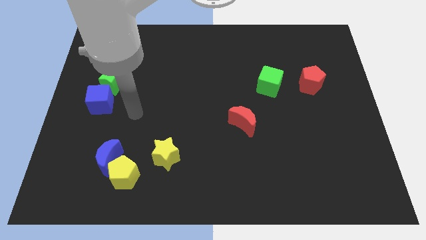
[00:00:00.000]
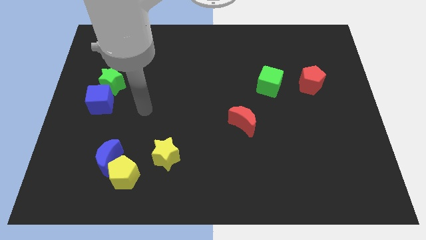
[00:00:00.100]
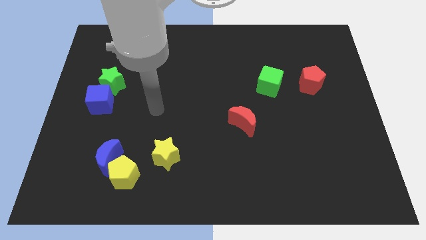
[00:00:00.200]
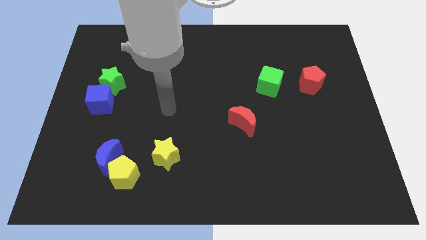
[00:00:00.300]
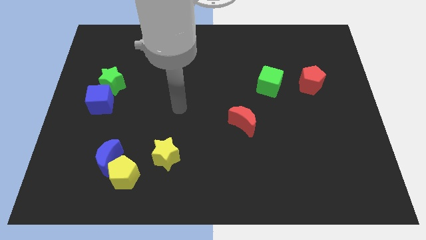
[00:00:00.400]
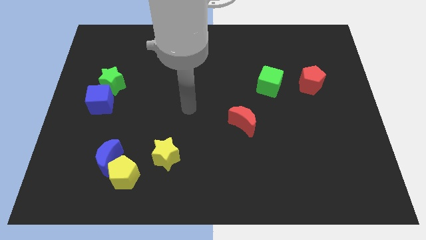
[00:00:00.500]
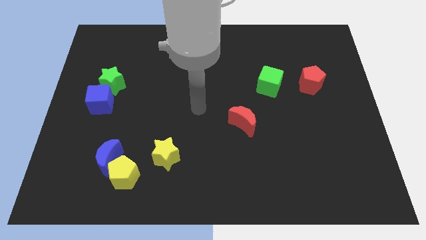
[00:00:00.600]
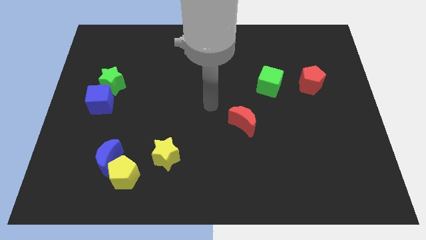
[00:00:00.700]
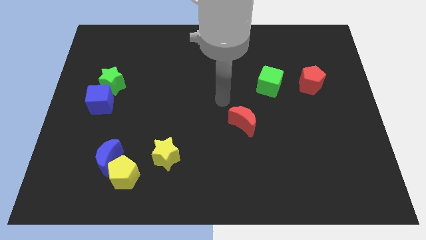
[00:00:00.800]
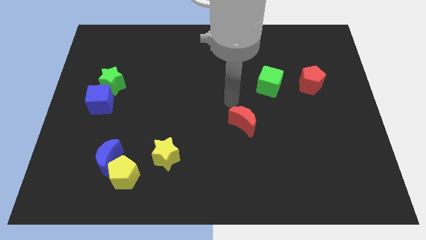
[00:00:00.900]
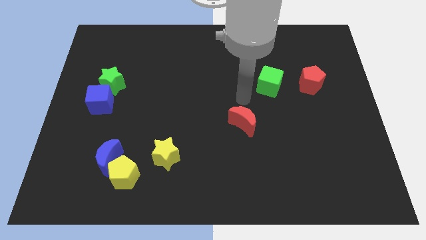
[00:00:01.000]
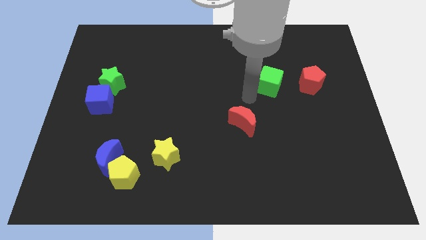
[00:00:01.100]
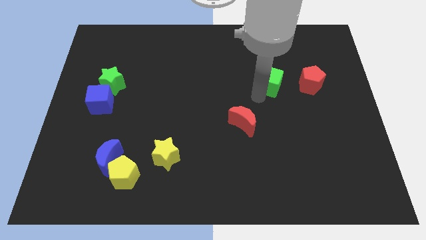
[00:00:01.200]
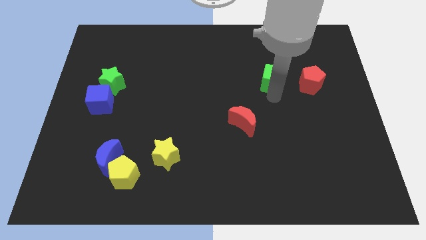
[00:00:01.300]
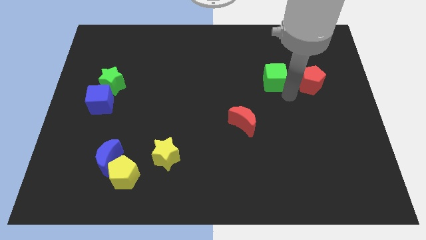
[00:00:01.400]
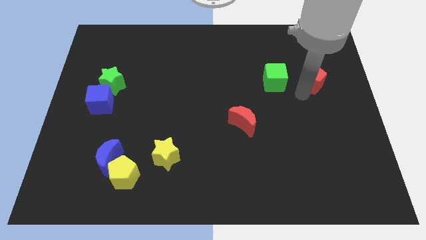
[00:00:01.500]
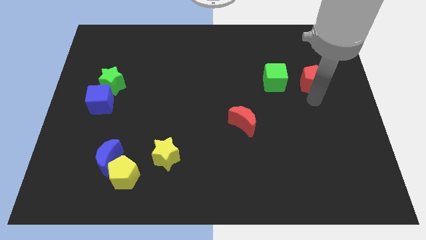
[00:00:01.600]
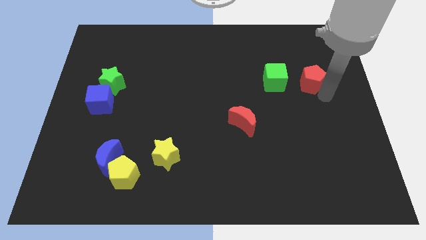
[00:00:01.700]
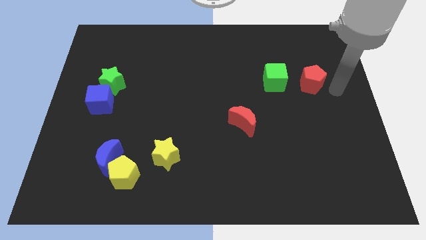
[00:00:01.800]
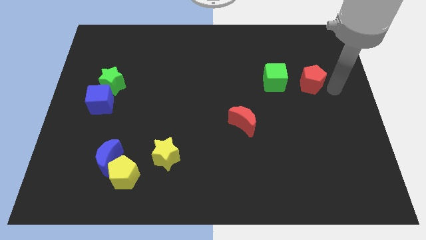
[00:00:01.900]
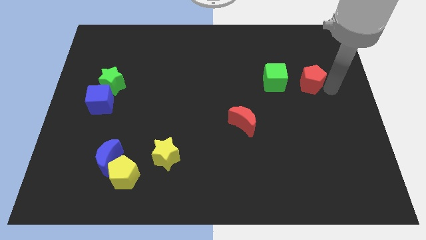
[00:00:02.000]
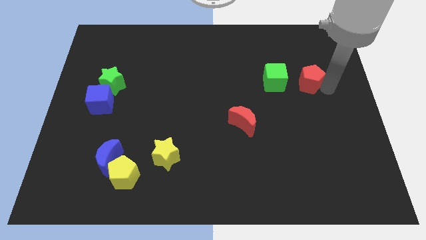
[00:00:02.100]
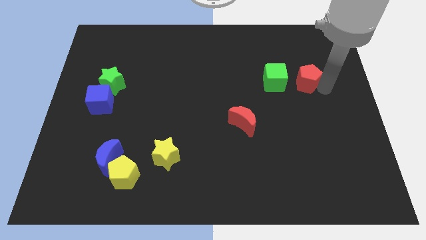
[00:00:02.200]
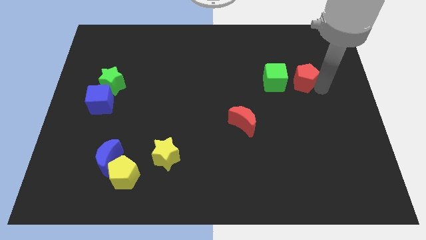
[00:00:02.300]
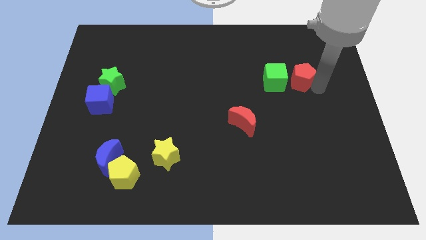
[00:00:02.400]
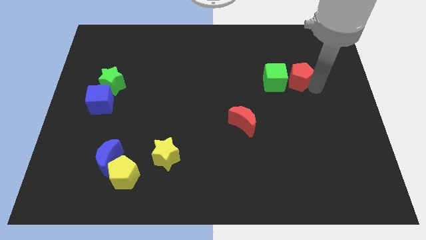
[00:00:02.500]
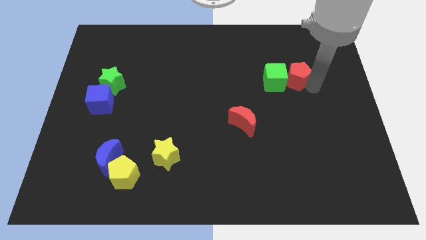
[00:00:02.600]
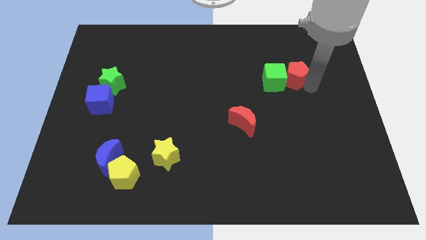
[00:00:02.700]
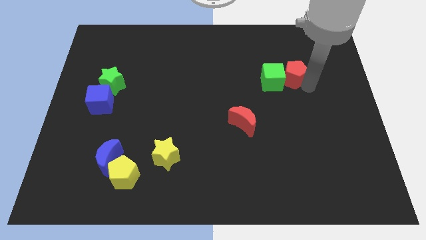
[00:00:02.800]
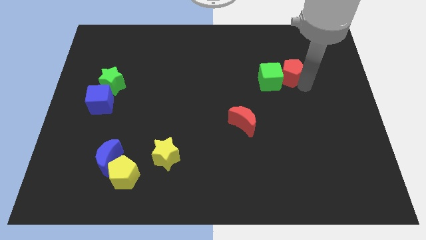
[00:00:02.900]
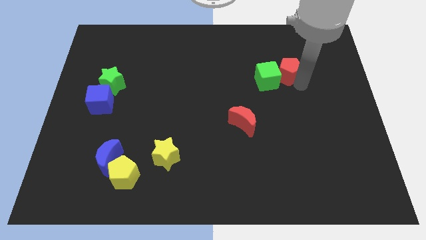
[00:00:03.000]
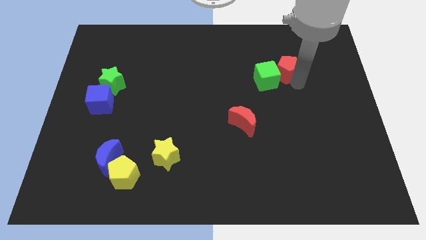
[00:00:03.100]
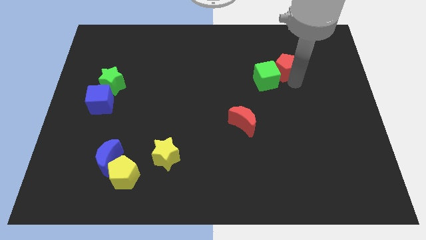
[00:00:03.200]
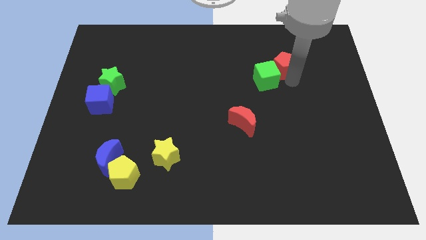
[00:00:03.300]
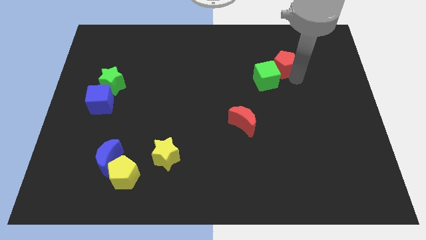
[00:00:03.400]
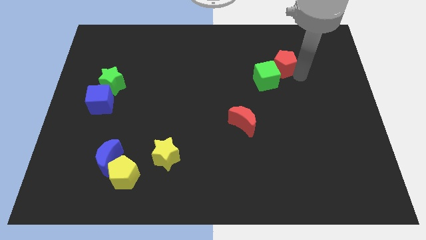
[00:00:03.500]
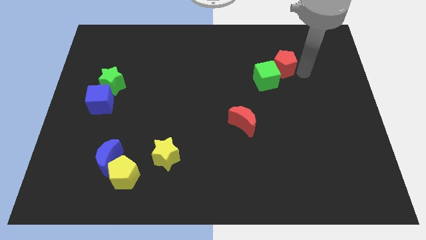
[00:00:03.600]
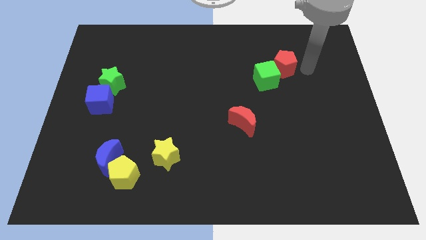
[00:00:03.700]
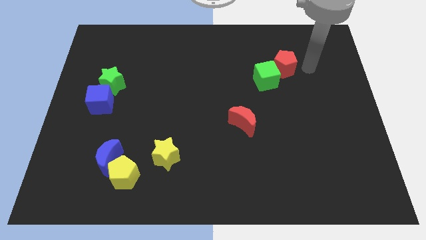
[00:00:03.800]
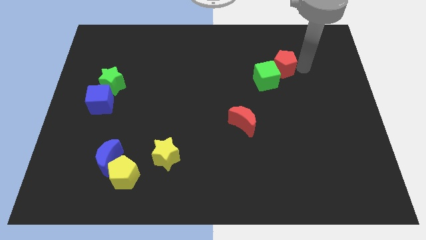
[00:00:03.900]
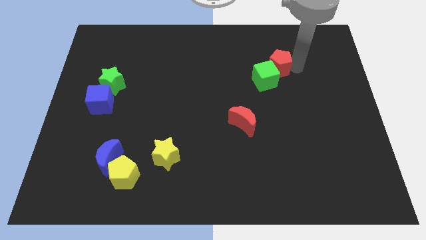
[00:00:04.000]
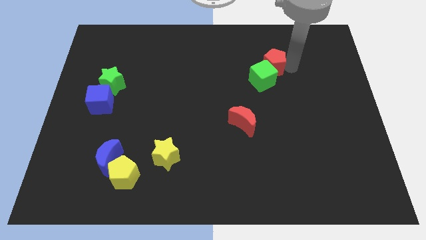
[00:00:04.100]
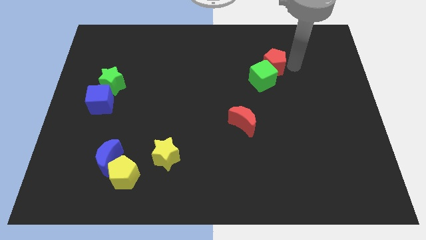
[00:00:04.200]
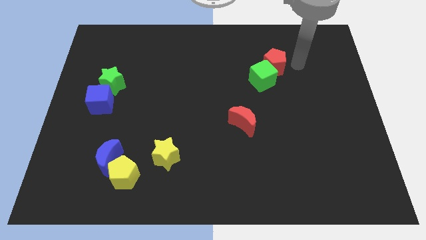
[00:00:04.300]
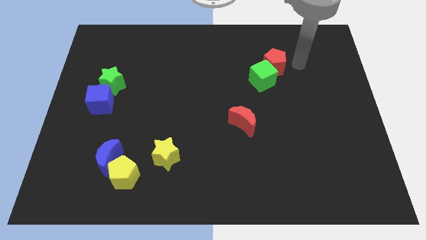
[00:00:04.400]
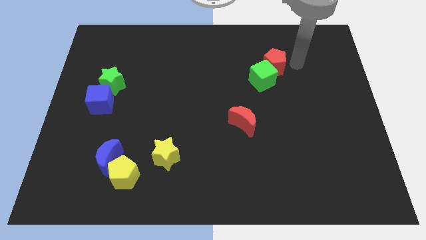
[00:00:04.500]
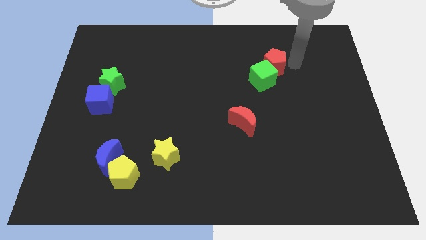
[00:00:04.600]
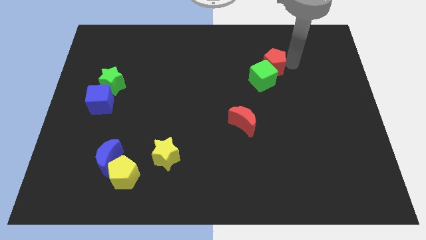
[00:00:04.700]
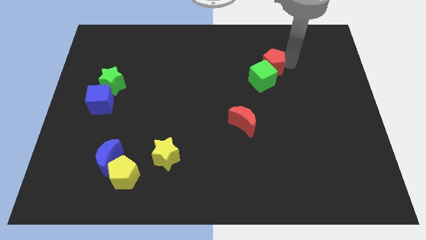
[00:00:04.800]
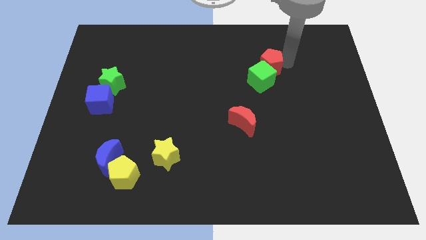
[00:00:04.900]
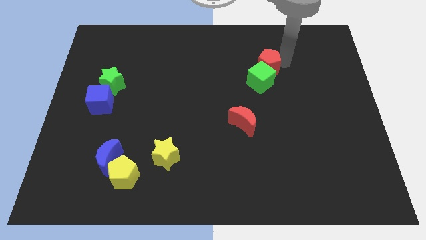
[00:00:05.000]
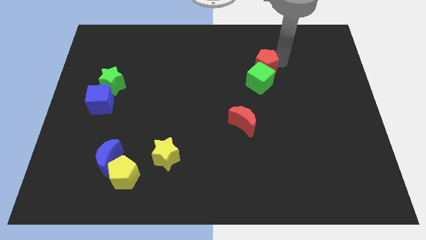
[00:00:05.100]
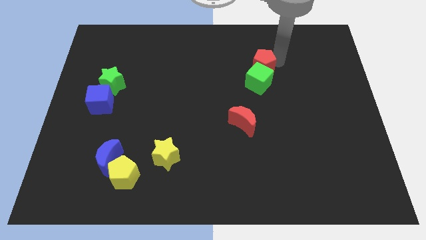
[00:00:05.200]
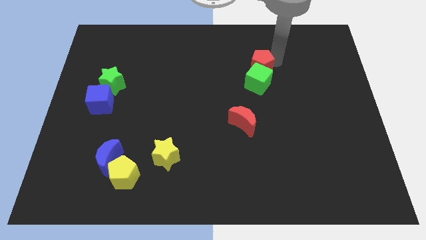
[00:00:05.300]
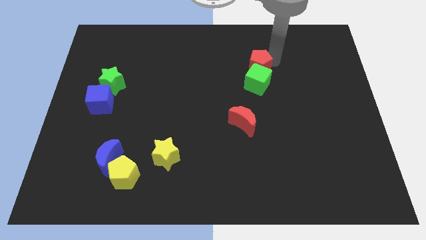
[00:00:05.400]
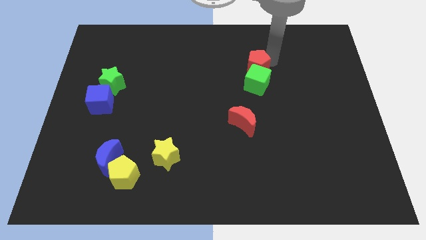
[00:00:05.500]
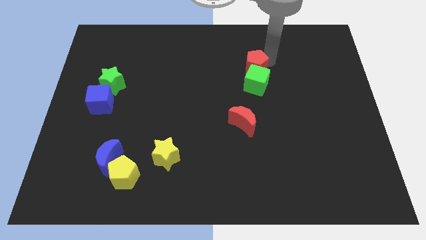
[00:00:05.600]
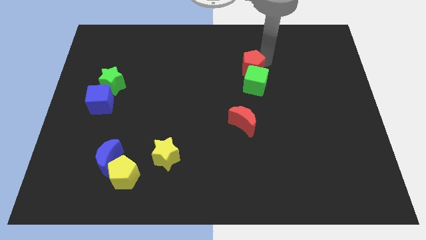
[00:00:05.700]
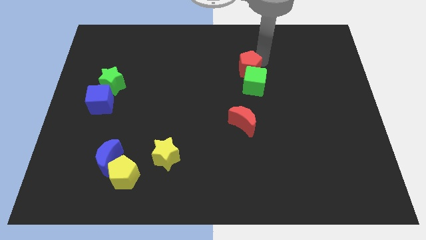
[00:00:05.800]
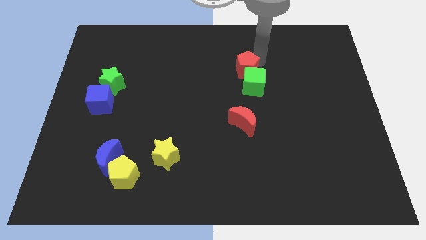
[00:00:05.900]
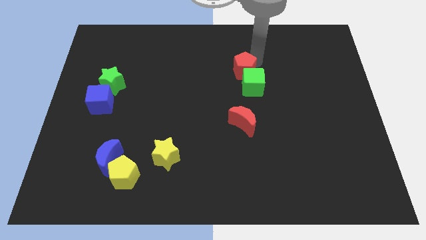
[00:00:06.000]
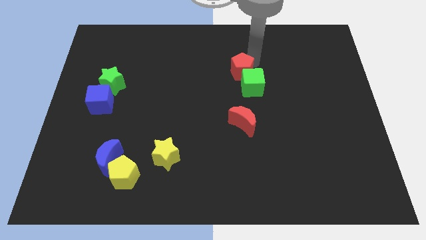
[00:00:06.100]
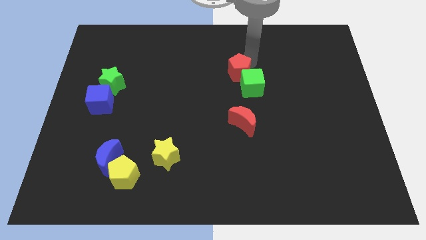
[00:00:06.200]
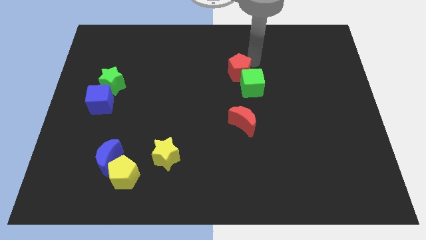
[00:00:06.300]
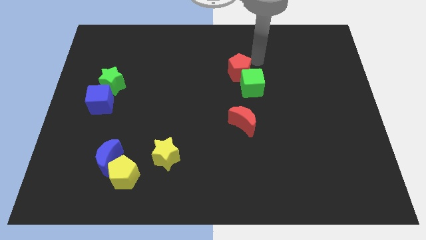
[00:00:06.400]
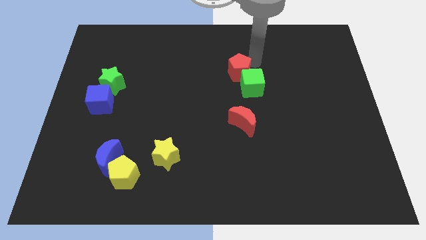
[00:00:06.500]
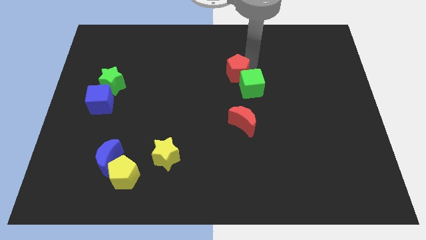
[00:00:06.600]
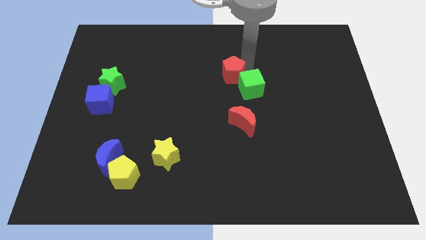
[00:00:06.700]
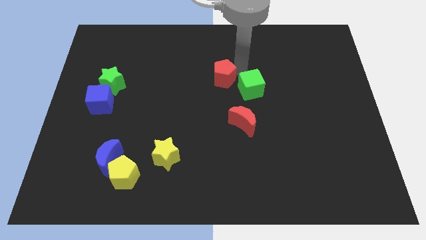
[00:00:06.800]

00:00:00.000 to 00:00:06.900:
push the red pentagon to the left

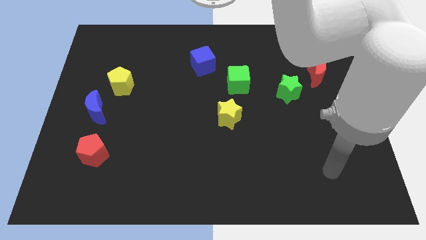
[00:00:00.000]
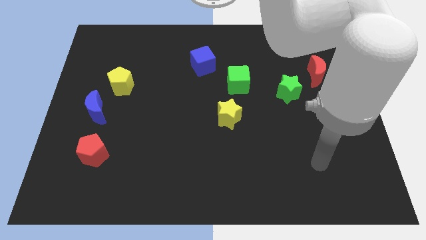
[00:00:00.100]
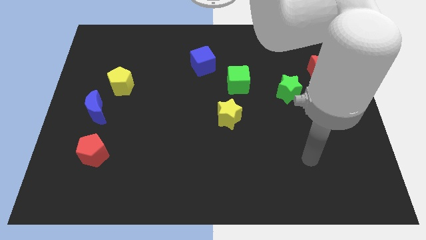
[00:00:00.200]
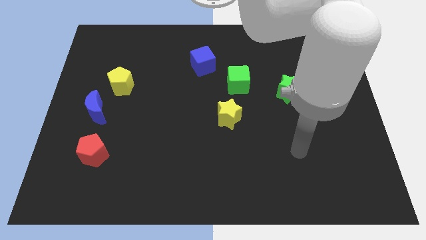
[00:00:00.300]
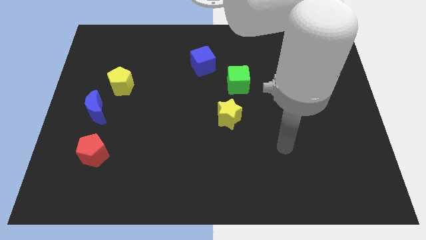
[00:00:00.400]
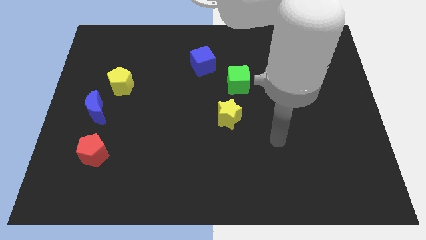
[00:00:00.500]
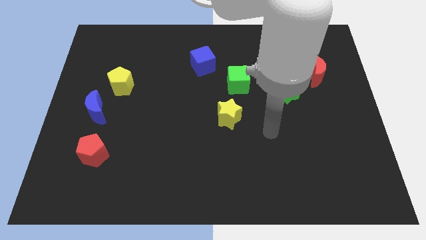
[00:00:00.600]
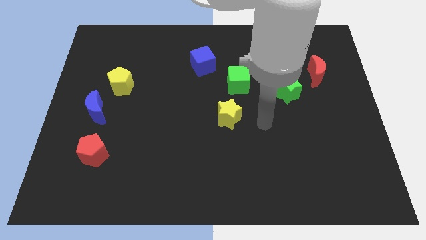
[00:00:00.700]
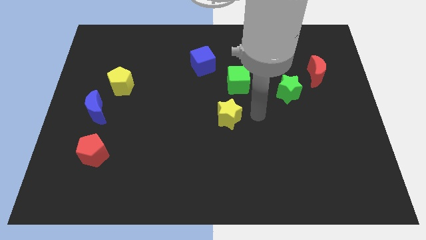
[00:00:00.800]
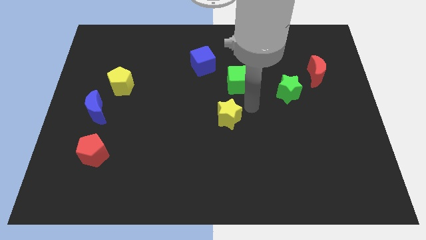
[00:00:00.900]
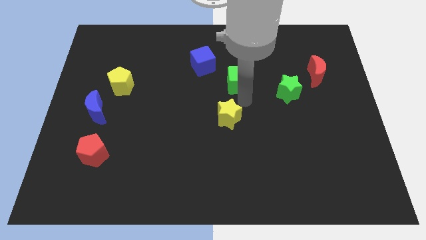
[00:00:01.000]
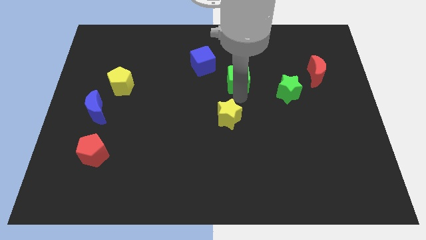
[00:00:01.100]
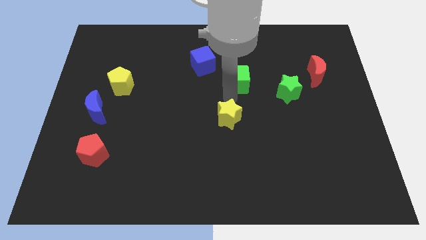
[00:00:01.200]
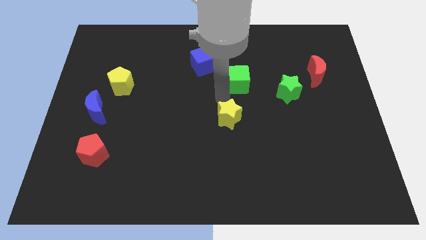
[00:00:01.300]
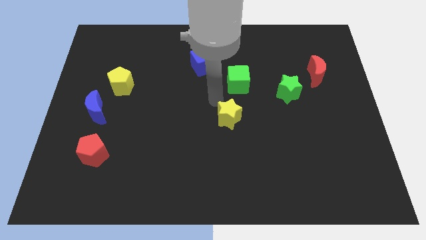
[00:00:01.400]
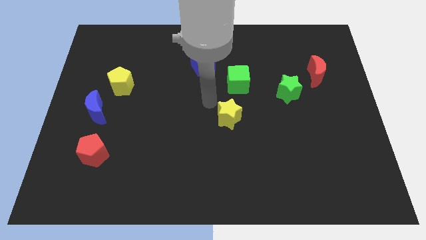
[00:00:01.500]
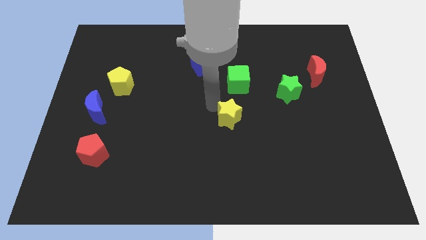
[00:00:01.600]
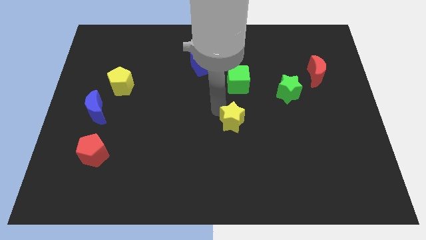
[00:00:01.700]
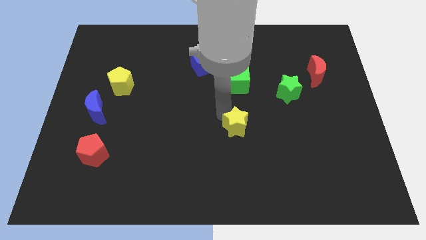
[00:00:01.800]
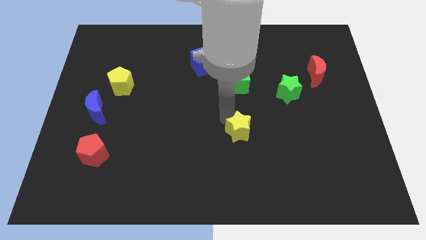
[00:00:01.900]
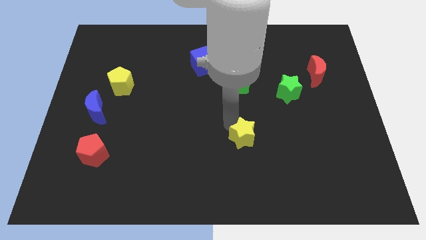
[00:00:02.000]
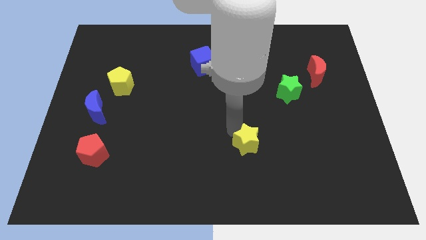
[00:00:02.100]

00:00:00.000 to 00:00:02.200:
slightly push the yellow star diagonally down and right
